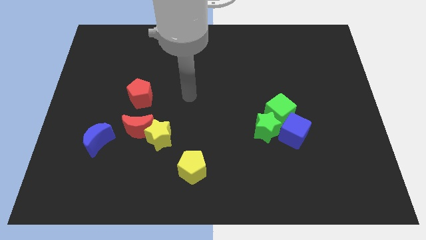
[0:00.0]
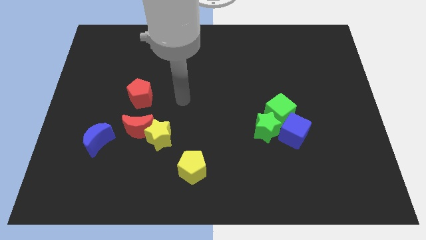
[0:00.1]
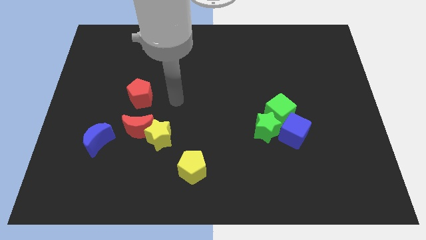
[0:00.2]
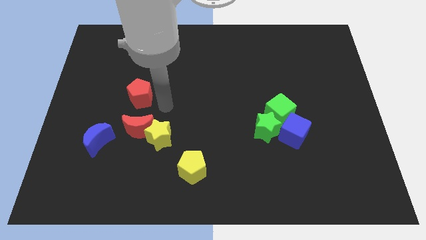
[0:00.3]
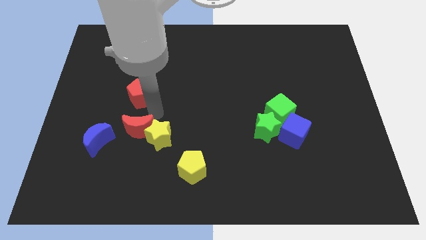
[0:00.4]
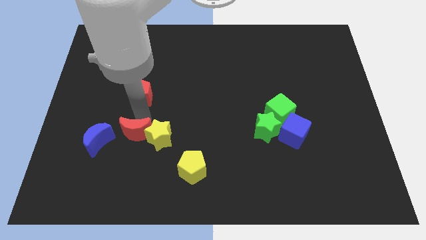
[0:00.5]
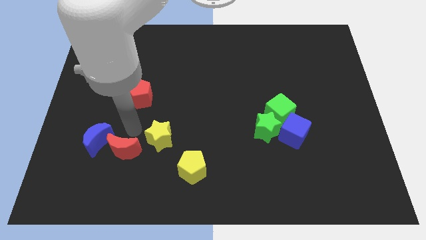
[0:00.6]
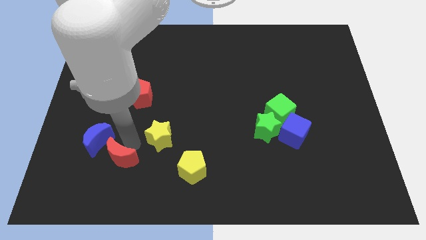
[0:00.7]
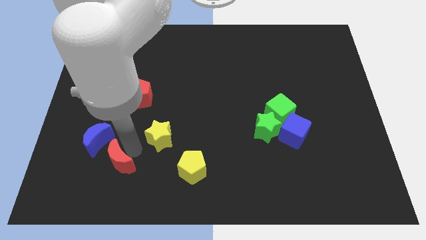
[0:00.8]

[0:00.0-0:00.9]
move the yellow star away from the red moon

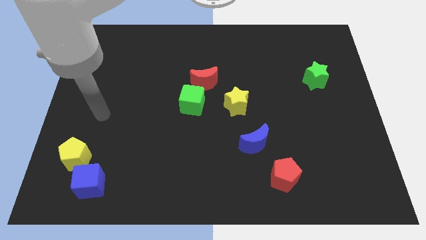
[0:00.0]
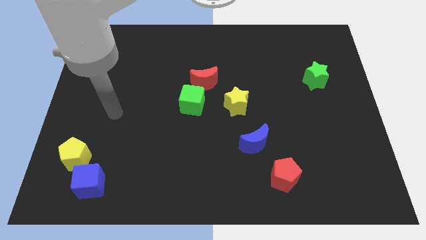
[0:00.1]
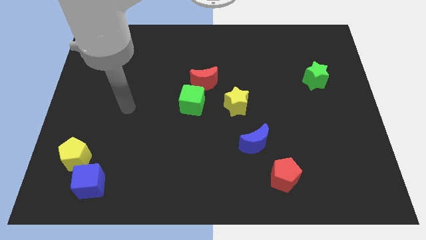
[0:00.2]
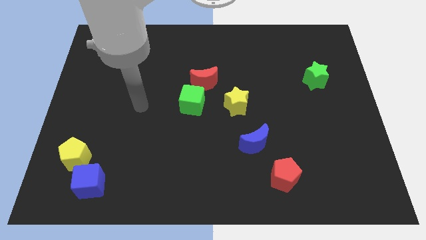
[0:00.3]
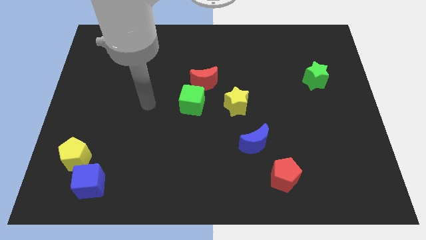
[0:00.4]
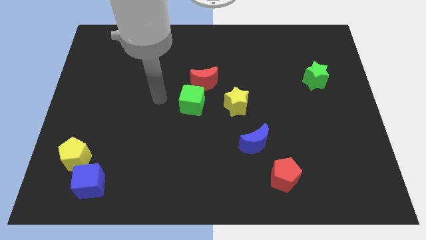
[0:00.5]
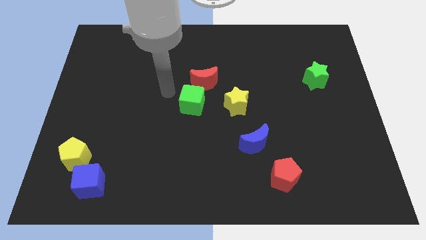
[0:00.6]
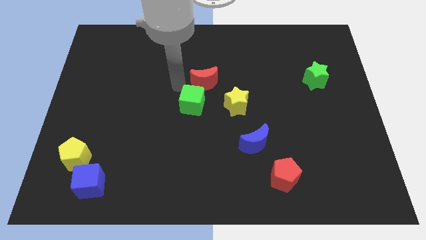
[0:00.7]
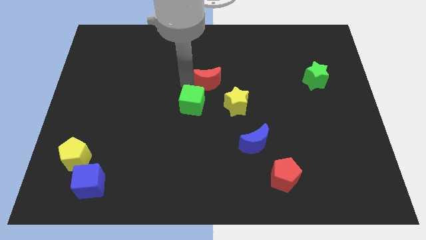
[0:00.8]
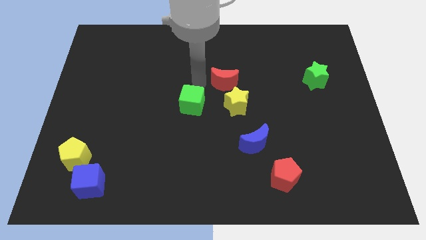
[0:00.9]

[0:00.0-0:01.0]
pull the green cube apart from the red moon

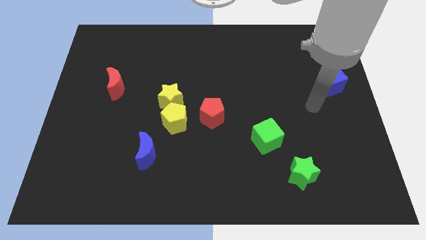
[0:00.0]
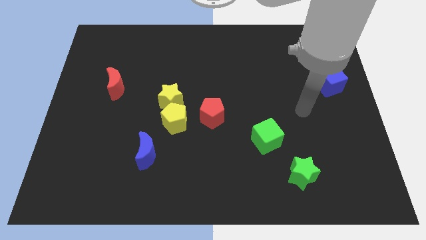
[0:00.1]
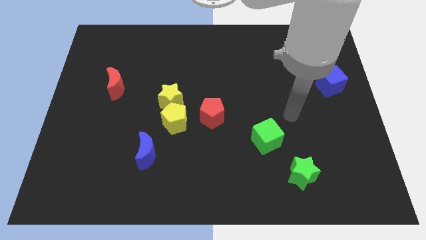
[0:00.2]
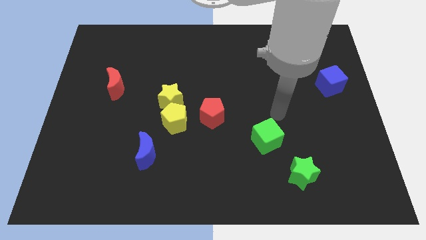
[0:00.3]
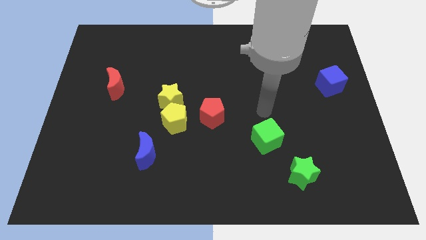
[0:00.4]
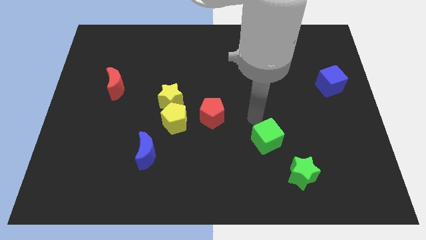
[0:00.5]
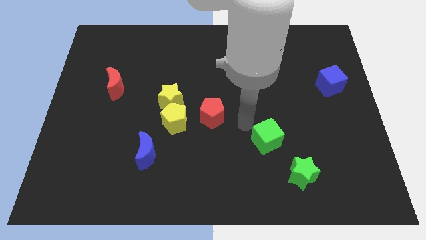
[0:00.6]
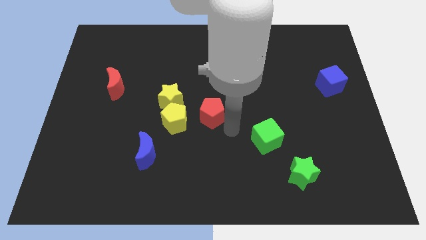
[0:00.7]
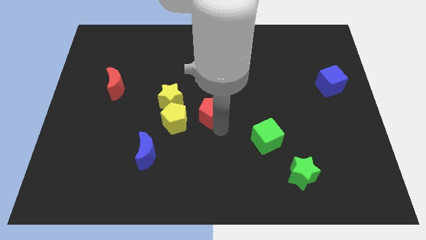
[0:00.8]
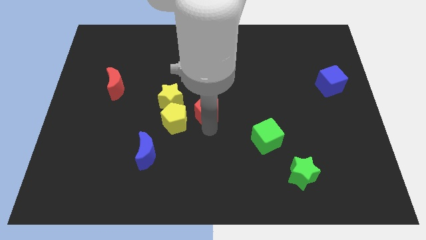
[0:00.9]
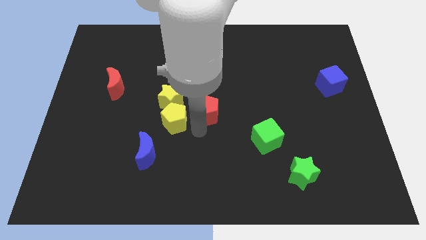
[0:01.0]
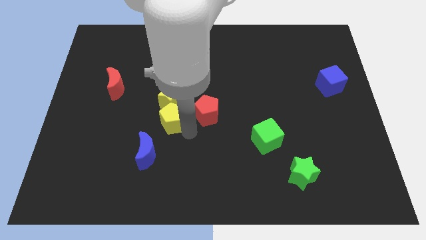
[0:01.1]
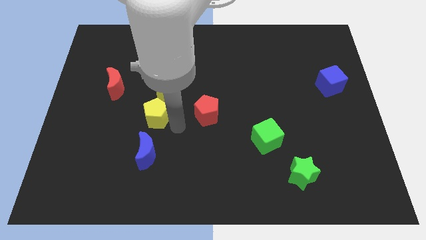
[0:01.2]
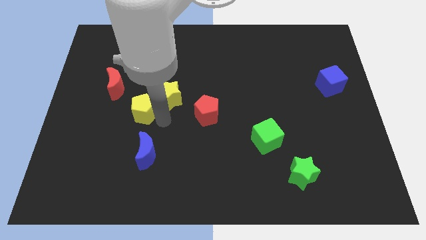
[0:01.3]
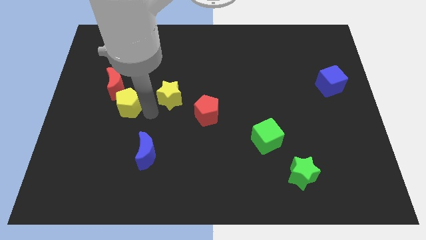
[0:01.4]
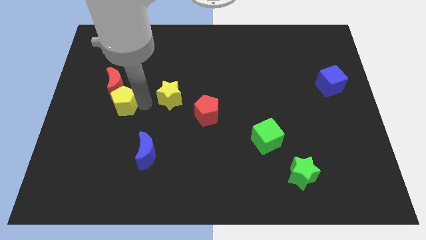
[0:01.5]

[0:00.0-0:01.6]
pull the yellow star apart from the yellow pentagon

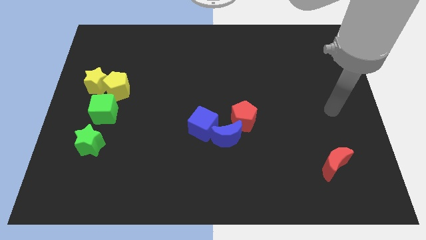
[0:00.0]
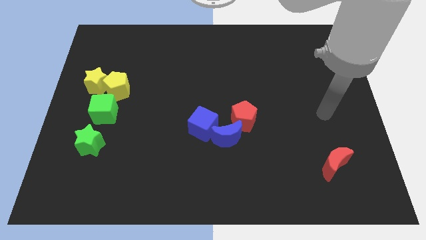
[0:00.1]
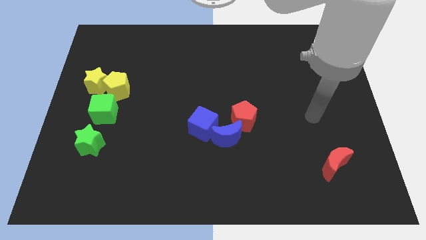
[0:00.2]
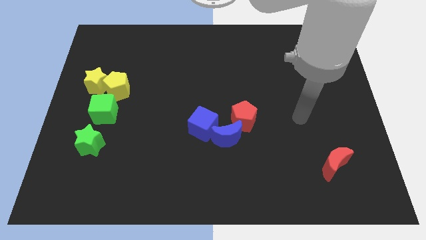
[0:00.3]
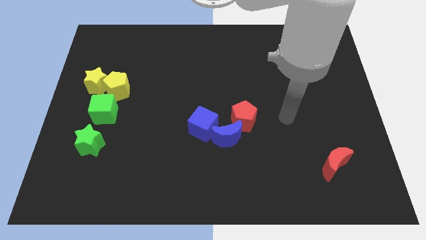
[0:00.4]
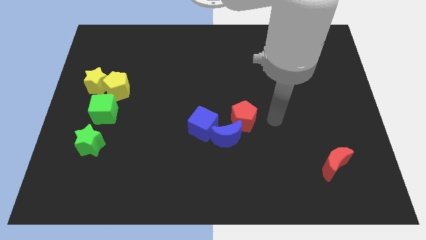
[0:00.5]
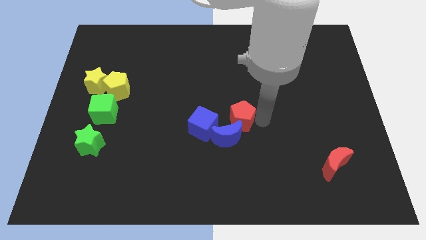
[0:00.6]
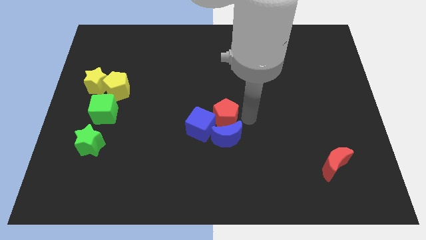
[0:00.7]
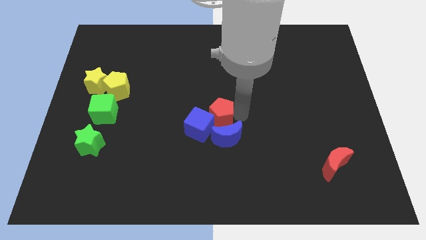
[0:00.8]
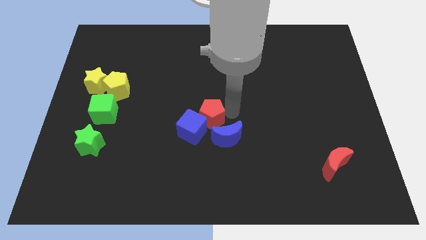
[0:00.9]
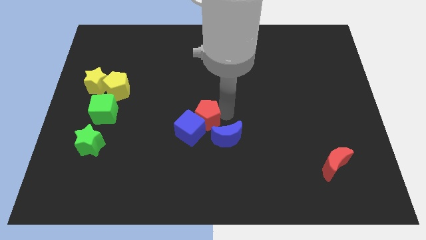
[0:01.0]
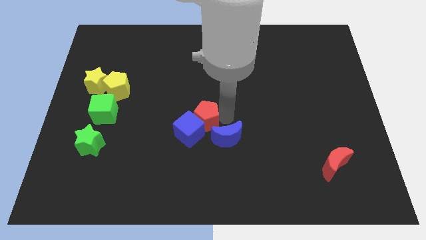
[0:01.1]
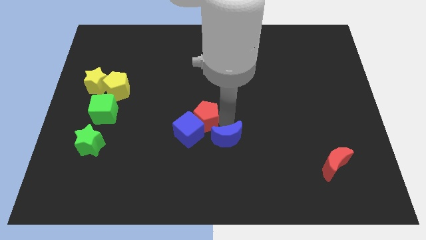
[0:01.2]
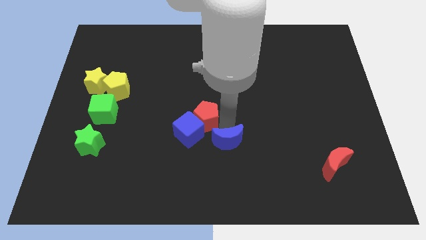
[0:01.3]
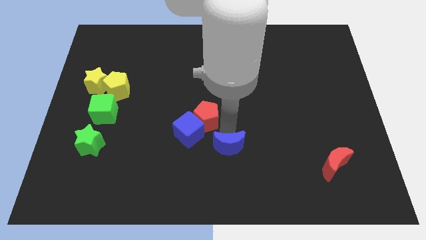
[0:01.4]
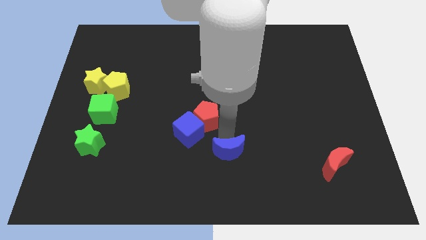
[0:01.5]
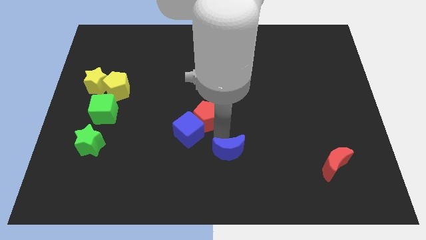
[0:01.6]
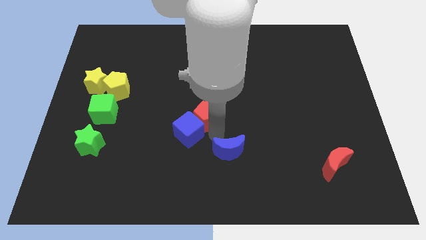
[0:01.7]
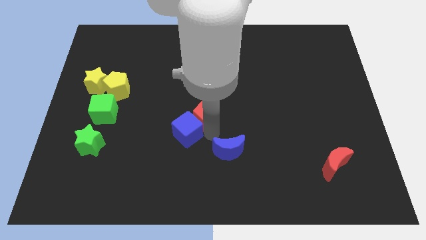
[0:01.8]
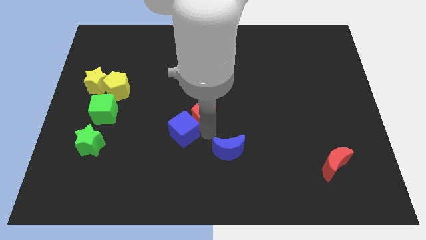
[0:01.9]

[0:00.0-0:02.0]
move the blue moon away from the blue cube and red pentagon

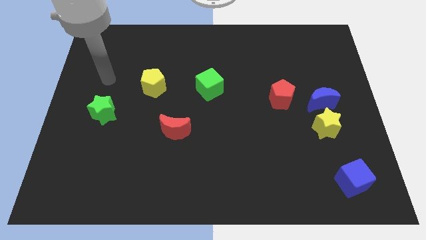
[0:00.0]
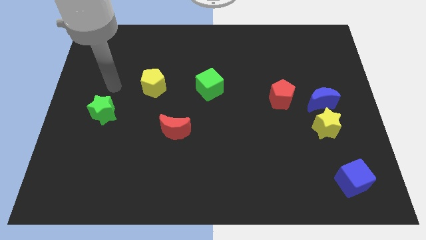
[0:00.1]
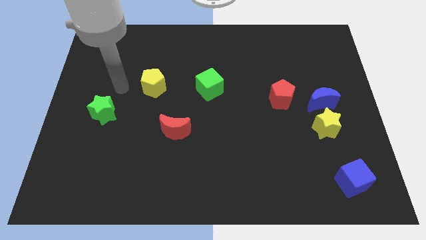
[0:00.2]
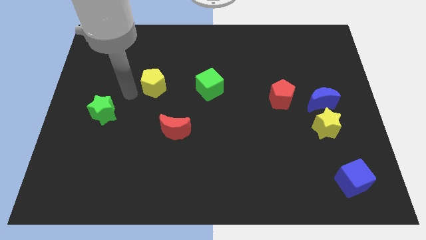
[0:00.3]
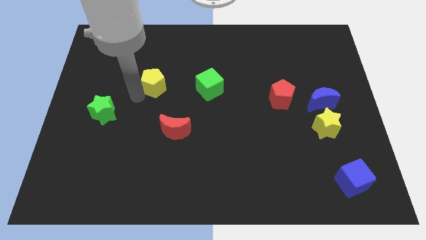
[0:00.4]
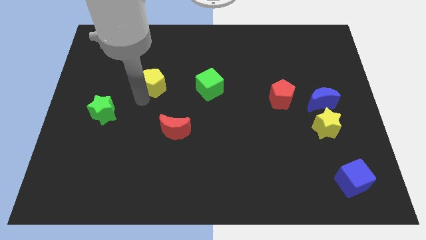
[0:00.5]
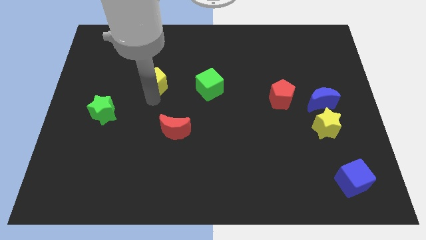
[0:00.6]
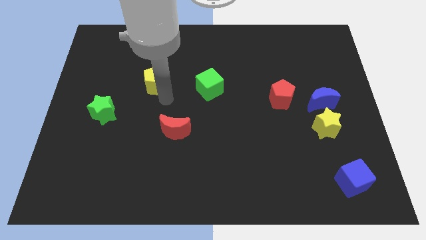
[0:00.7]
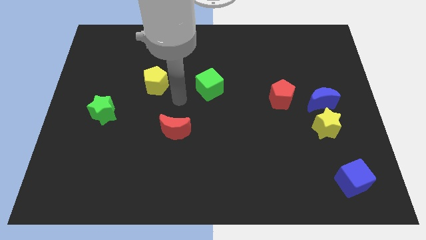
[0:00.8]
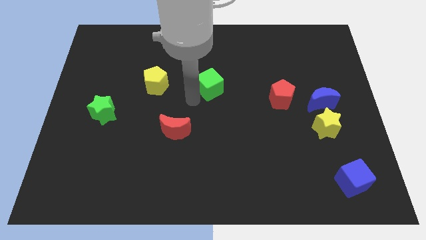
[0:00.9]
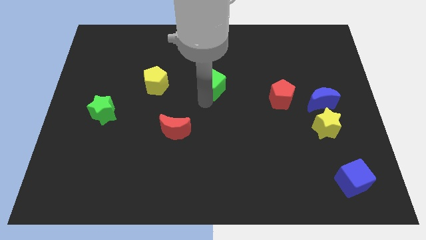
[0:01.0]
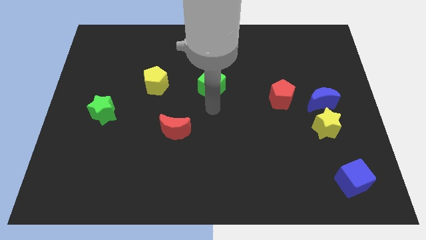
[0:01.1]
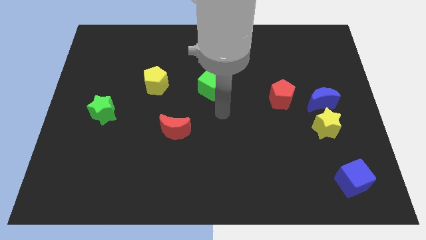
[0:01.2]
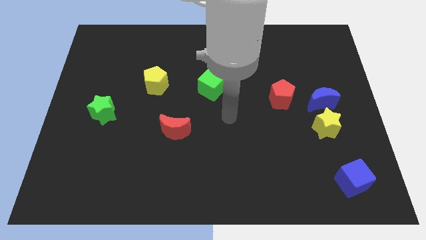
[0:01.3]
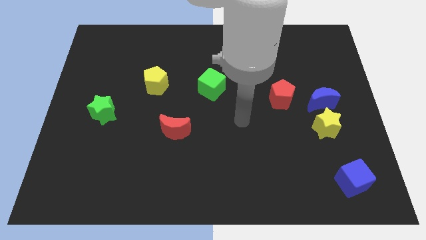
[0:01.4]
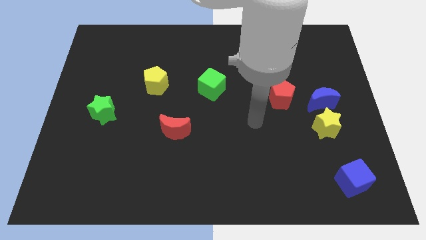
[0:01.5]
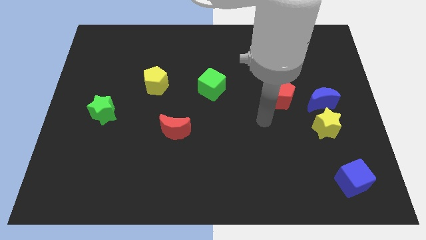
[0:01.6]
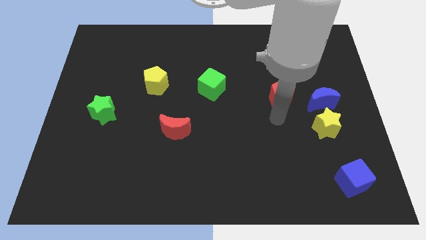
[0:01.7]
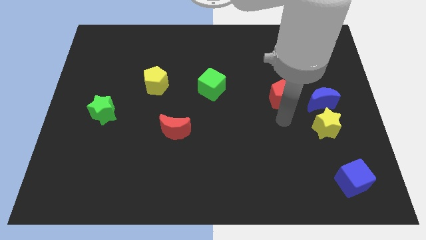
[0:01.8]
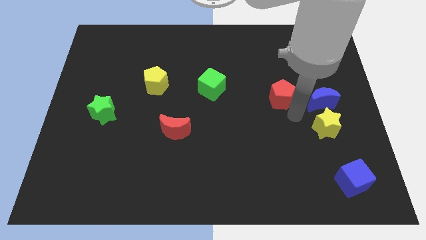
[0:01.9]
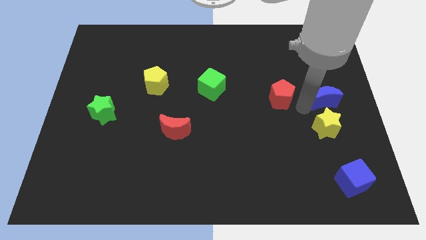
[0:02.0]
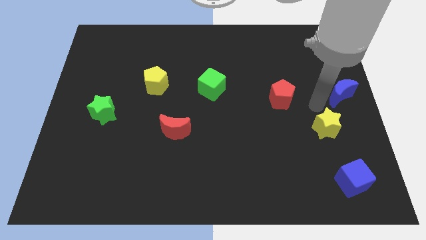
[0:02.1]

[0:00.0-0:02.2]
separate the yellow star from the blue moon

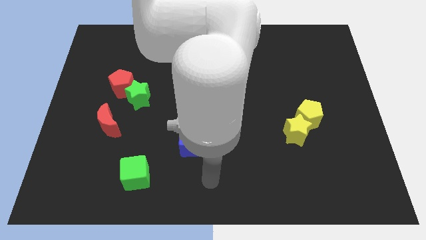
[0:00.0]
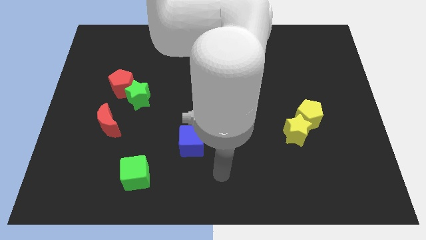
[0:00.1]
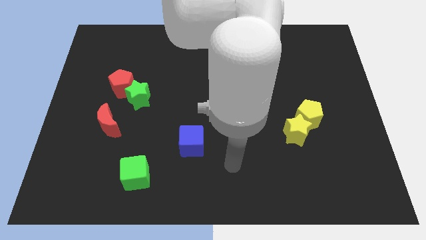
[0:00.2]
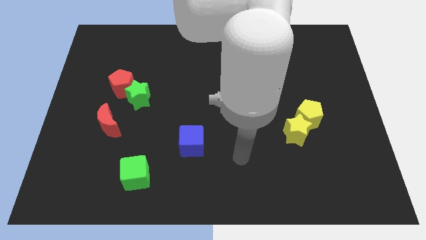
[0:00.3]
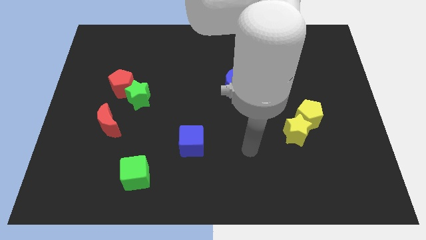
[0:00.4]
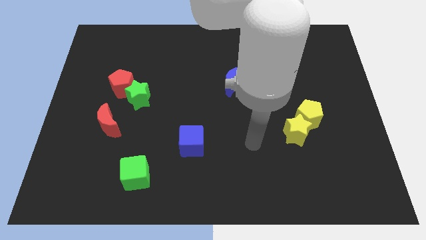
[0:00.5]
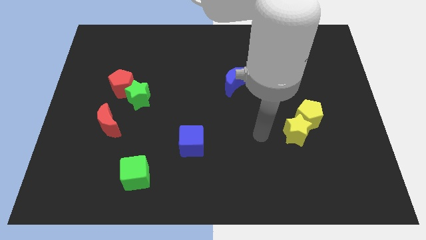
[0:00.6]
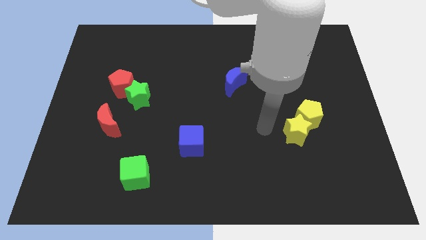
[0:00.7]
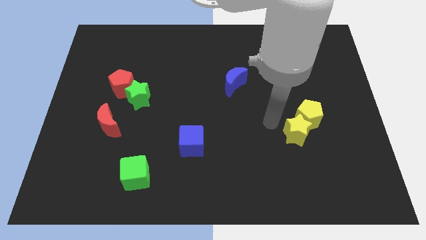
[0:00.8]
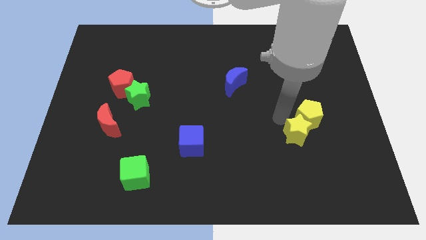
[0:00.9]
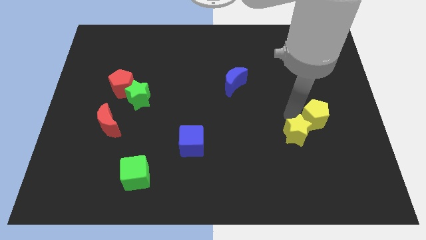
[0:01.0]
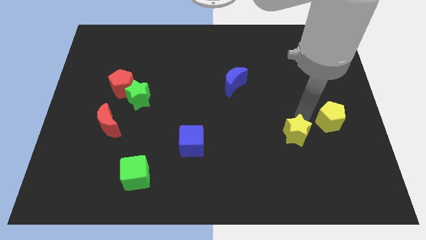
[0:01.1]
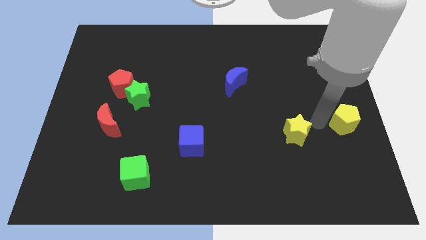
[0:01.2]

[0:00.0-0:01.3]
move the yellow star away from the yellow pentagon

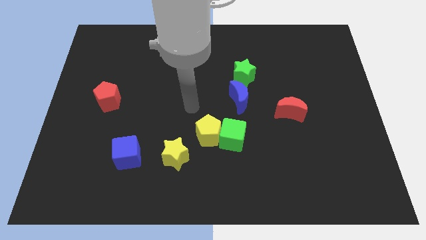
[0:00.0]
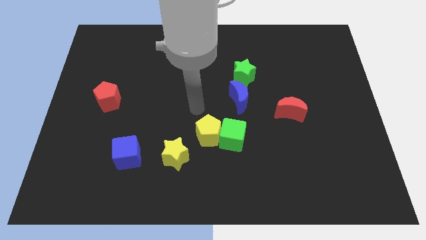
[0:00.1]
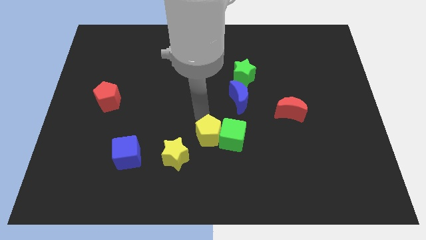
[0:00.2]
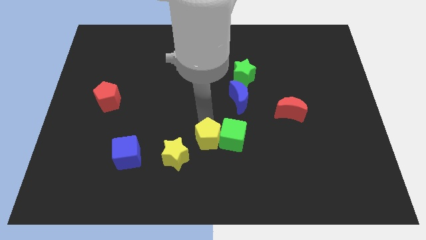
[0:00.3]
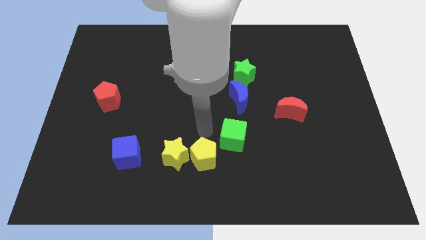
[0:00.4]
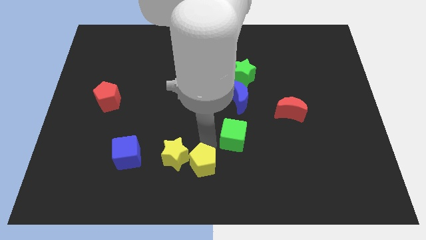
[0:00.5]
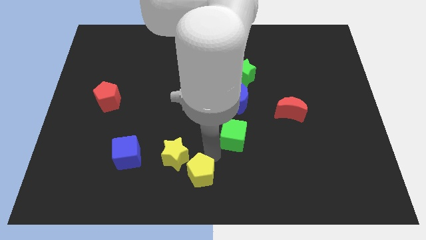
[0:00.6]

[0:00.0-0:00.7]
separate the green cube from the yellow pentagon
